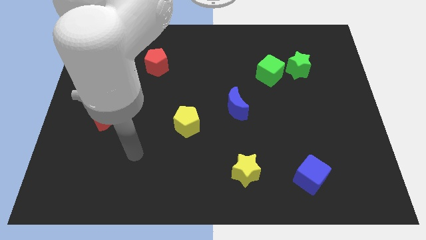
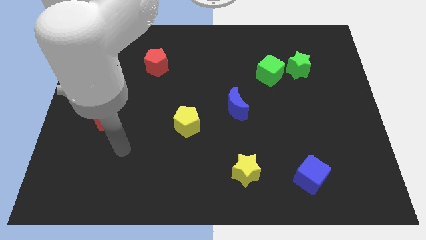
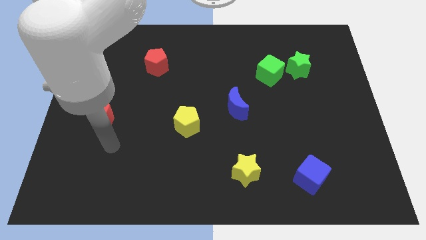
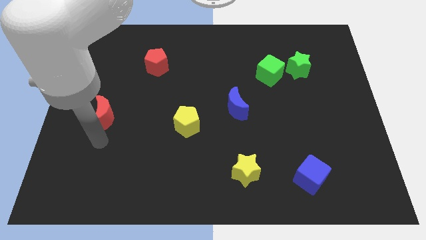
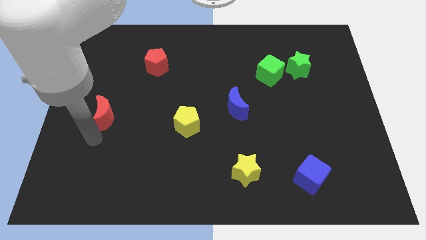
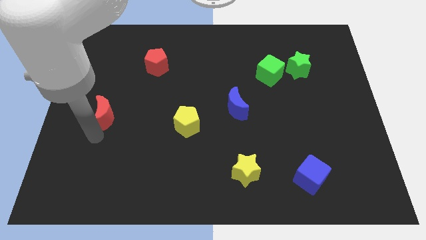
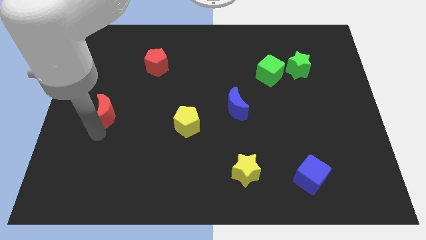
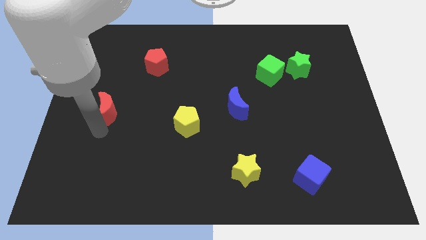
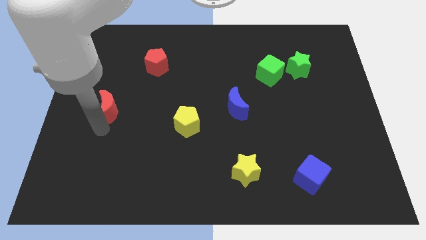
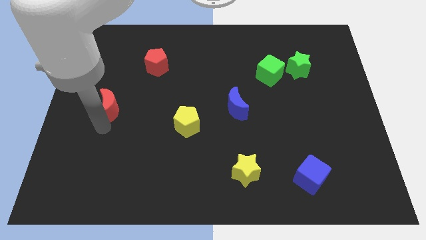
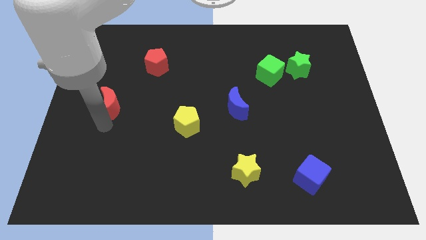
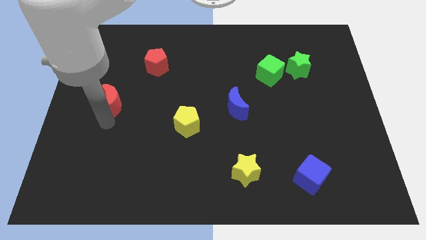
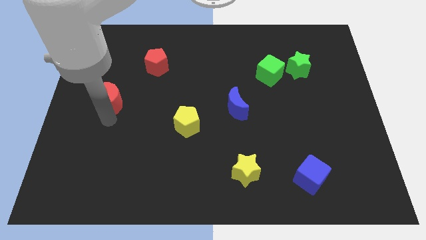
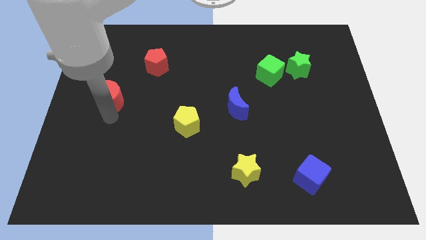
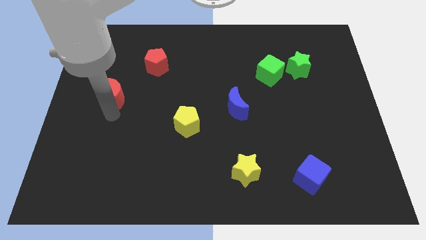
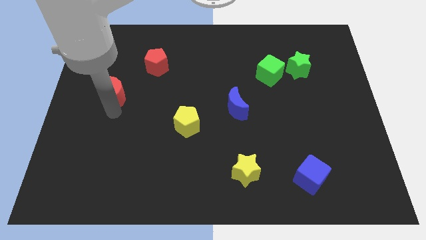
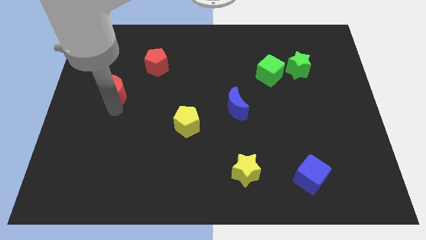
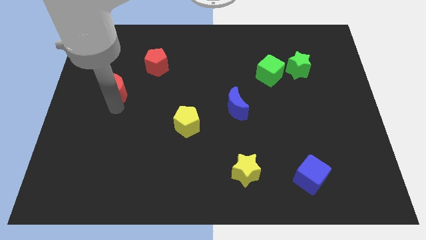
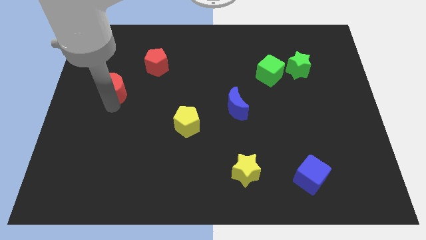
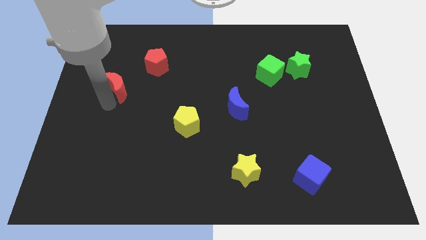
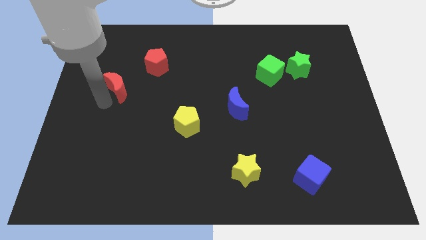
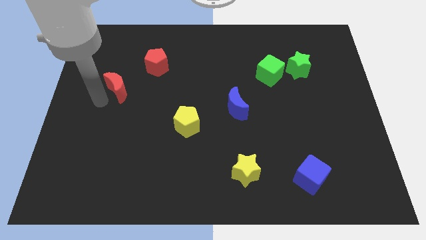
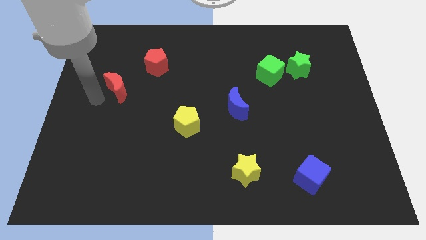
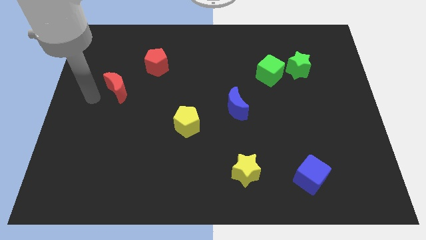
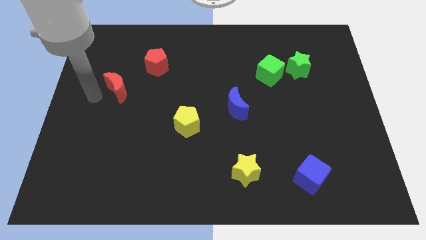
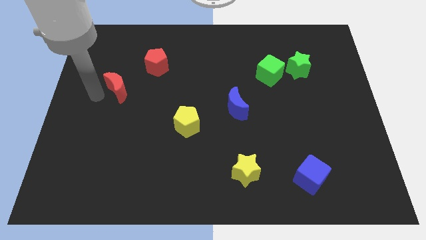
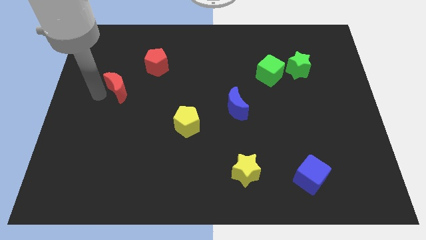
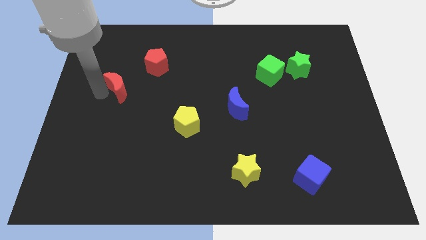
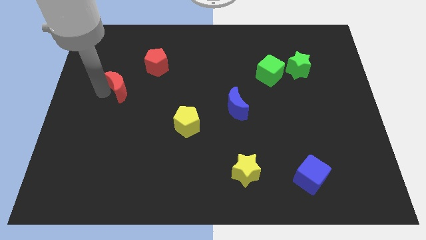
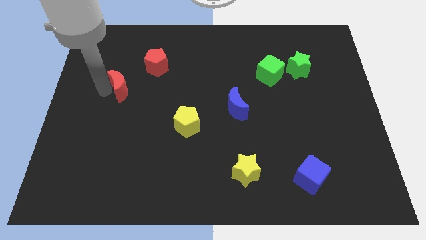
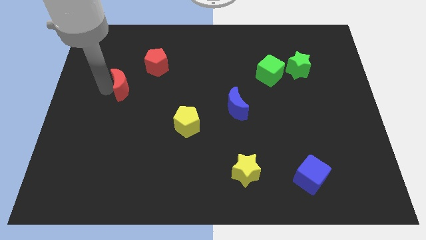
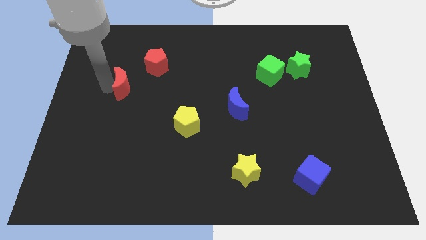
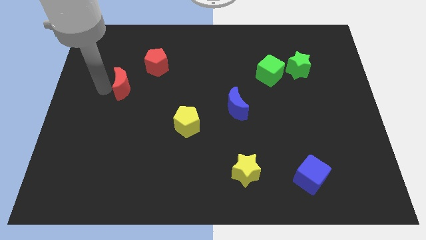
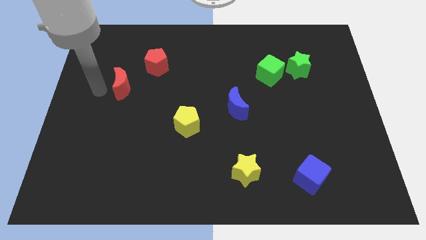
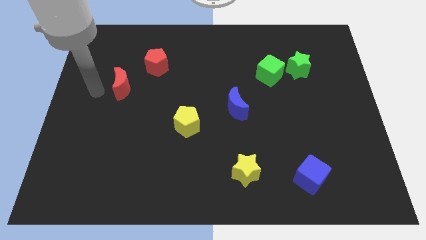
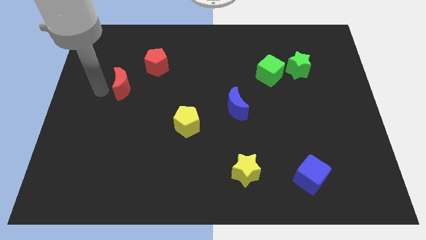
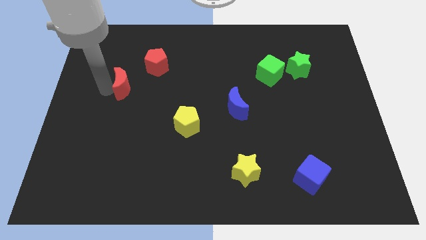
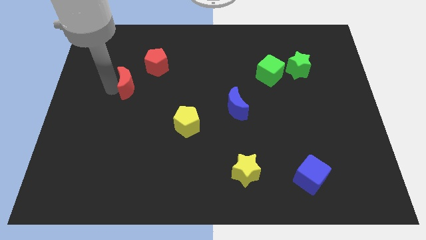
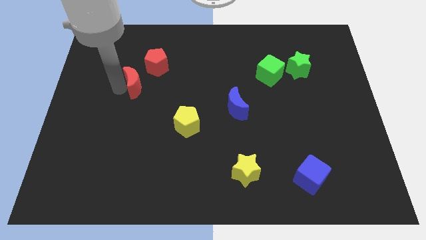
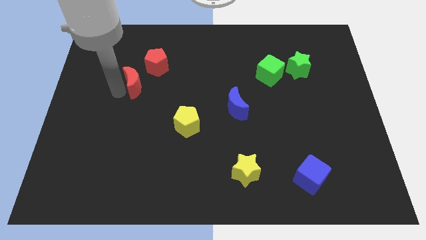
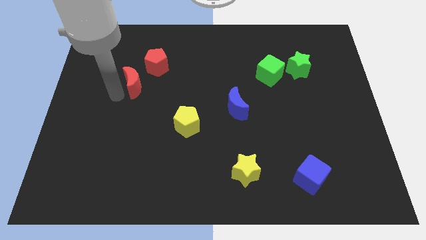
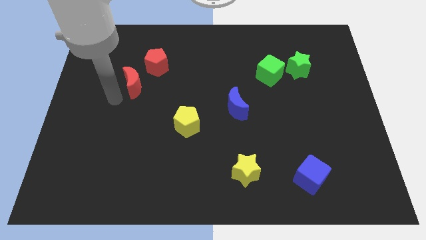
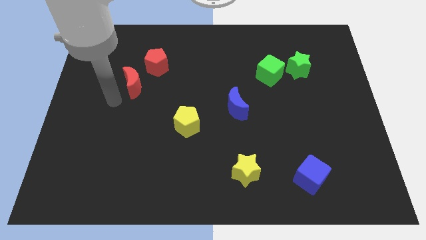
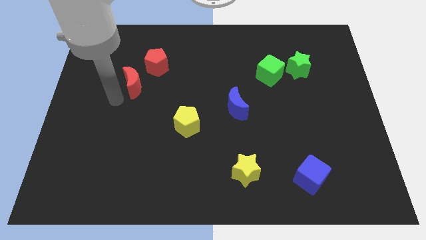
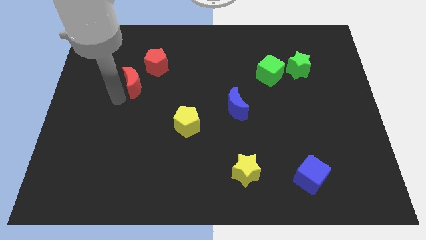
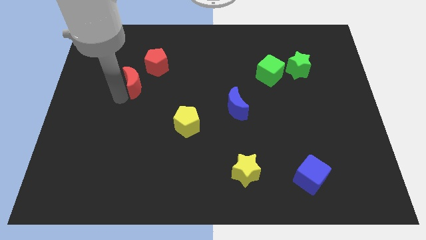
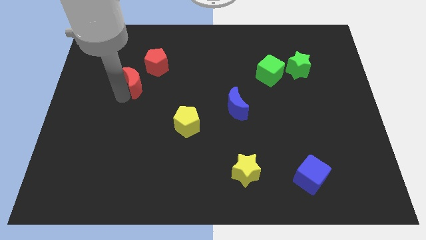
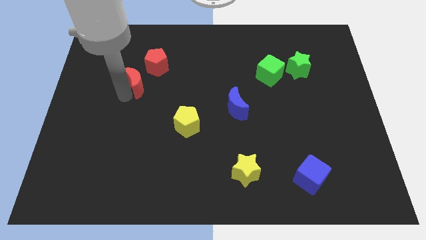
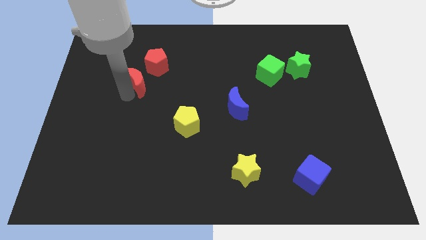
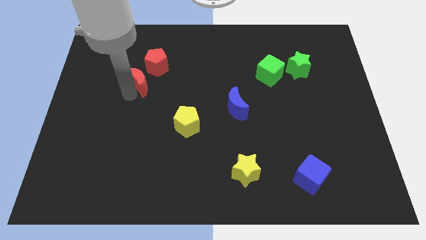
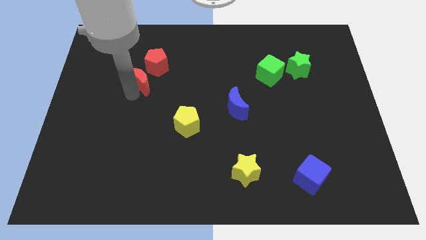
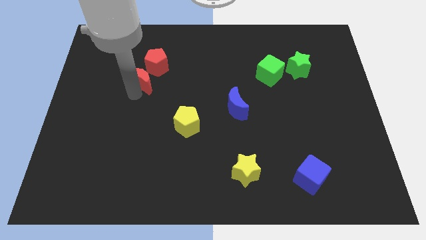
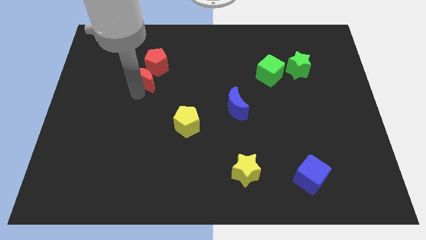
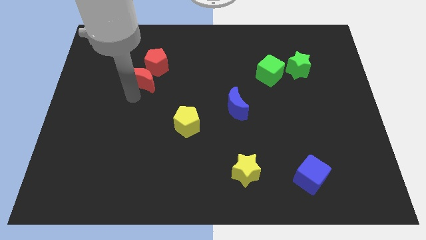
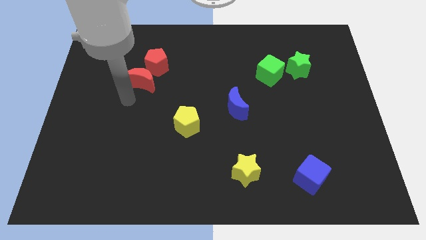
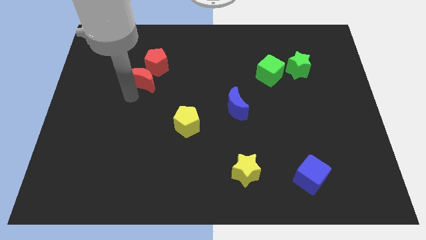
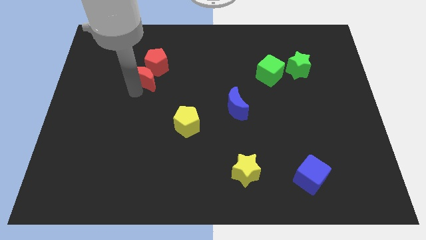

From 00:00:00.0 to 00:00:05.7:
put the red moon next to the red pentagon
